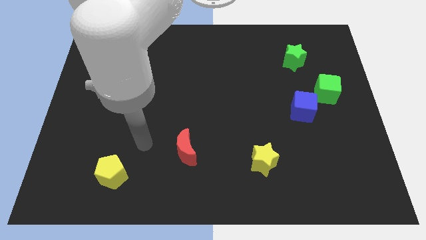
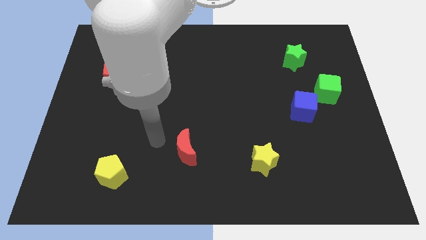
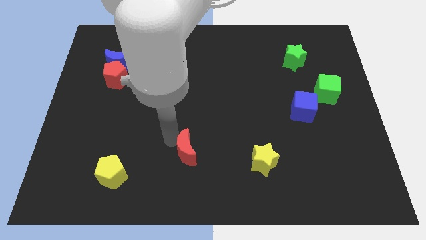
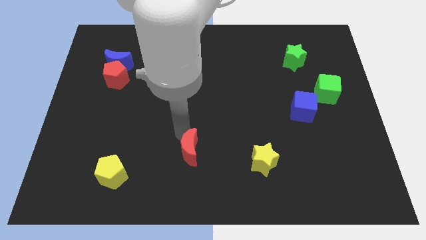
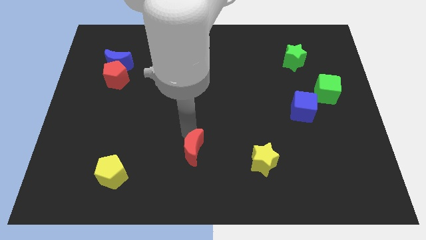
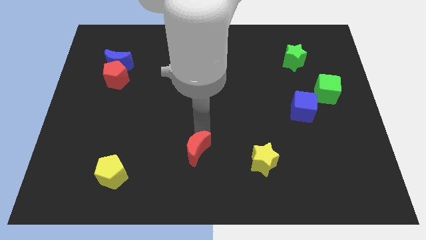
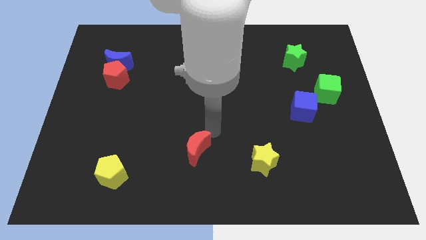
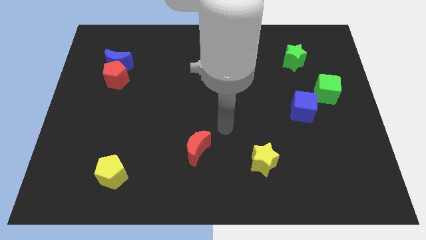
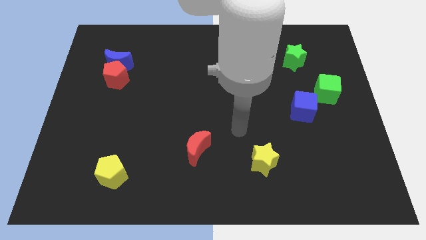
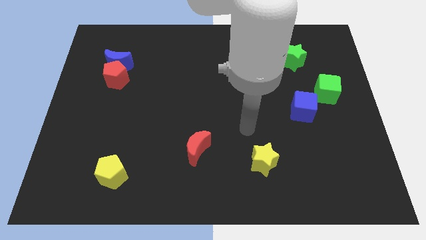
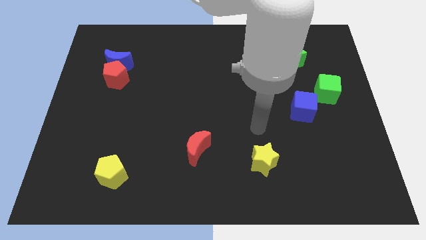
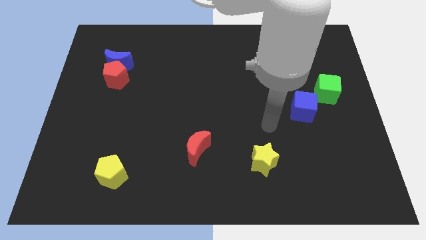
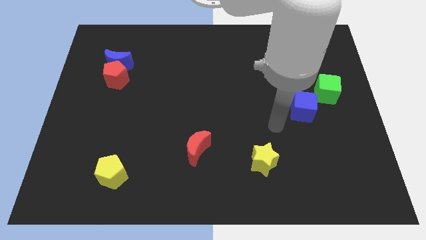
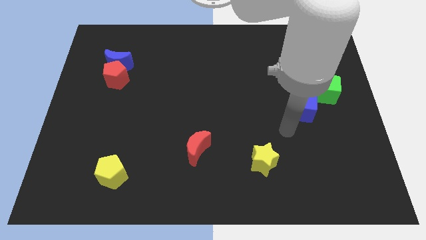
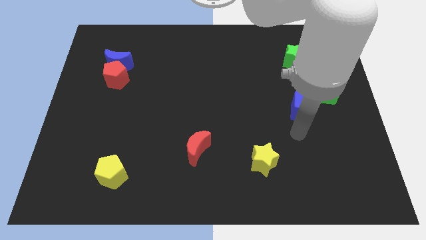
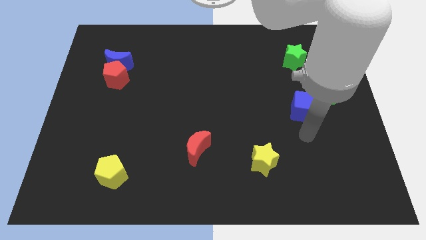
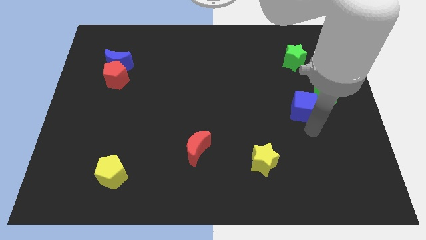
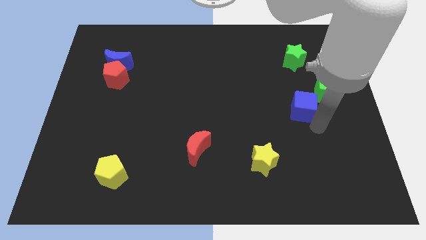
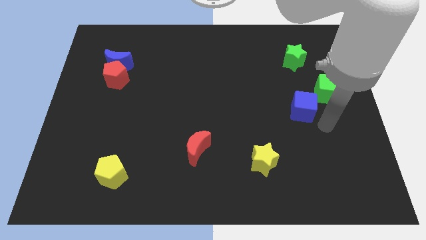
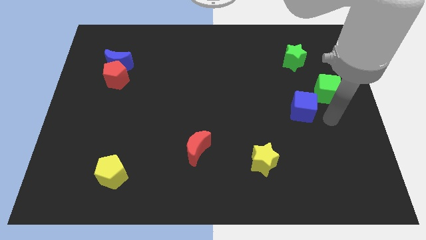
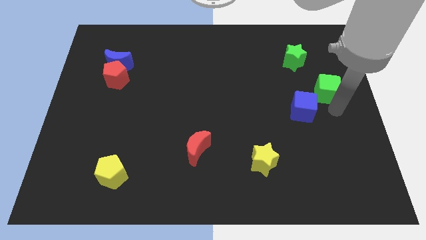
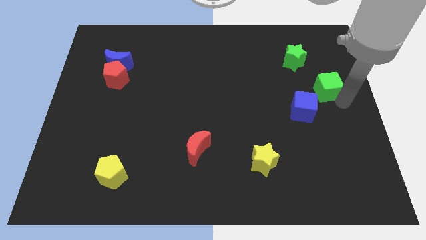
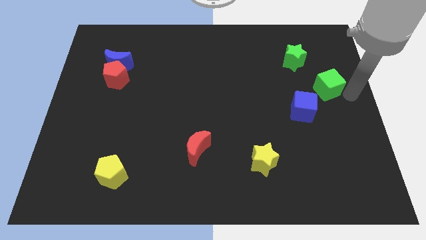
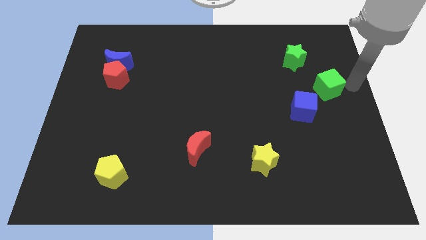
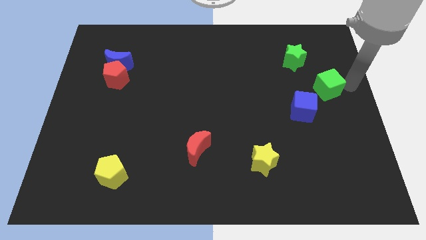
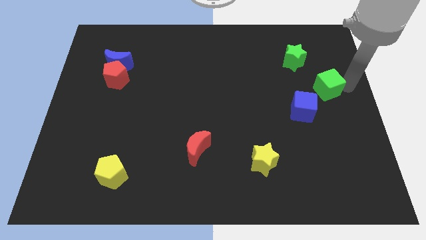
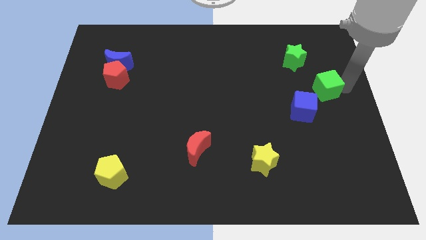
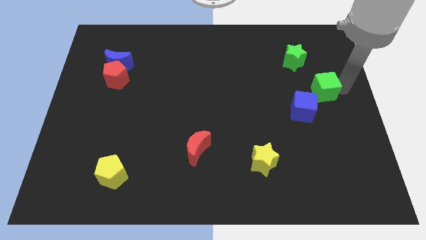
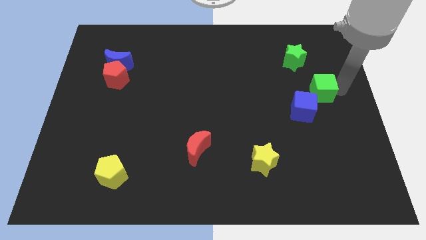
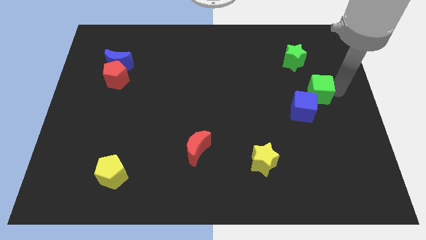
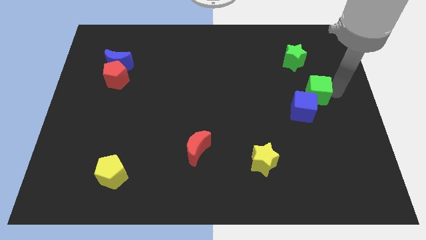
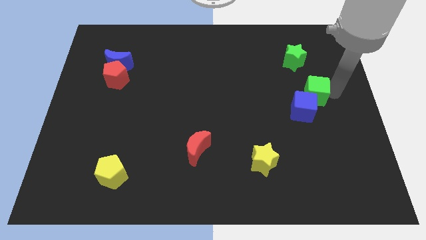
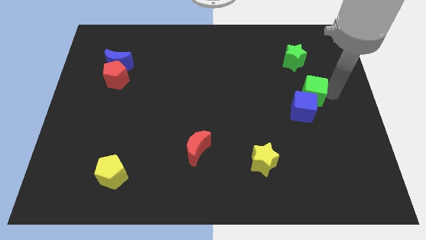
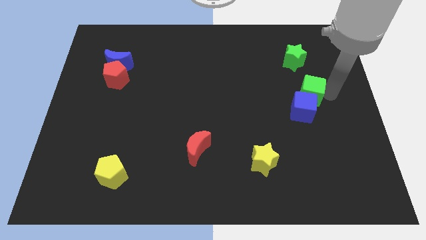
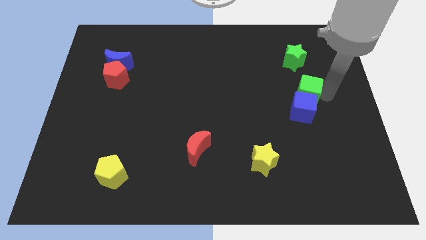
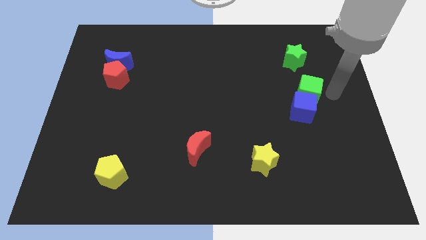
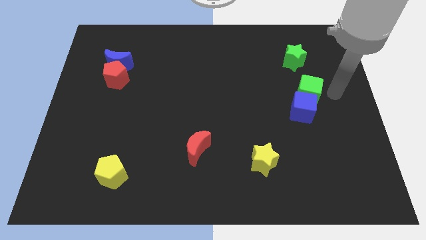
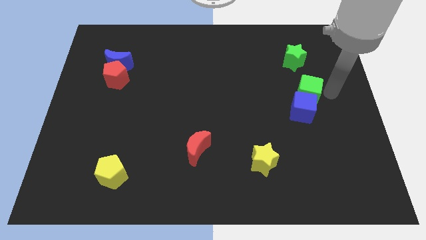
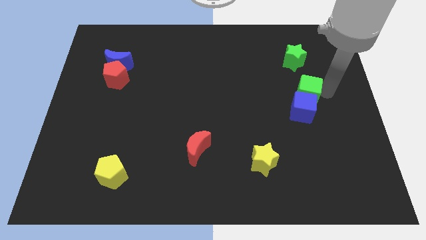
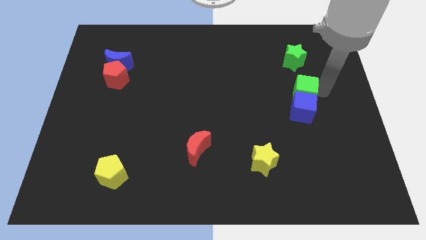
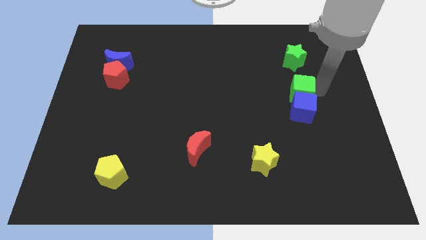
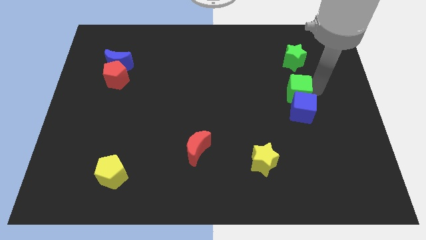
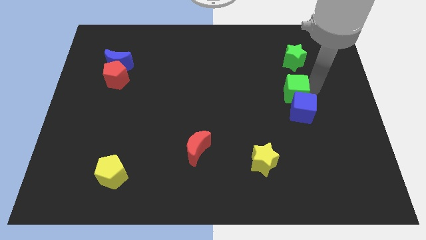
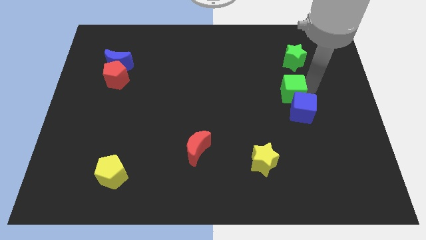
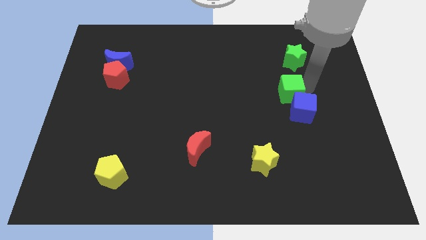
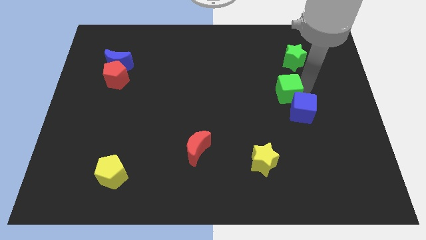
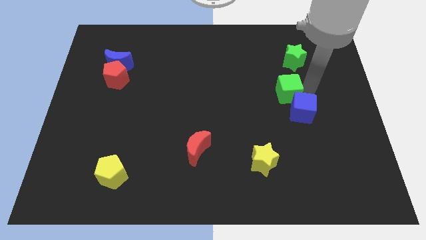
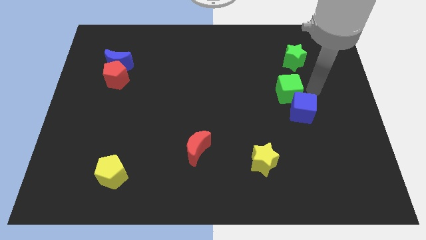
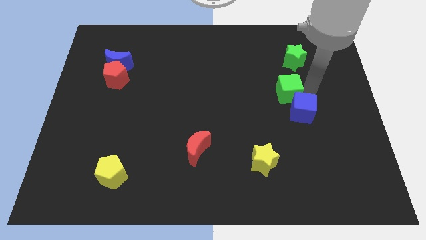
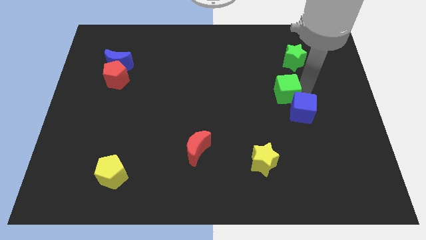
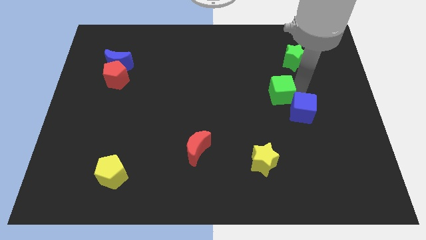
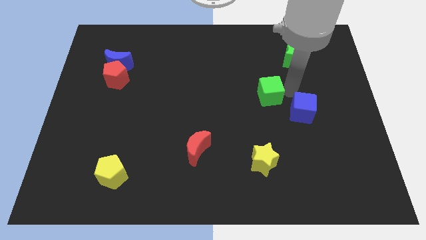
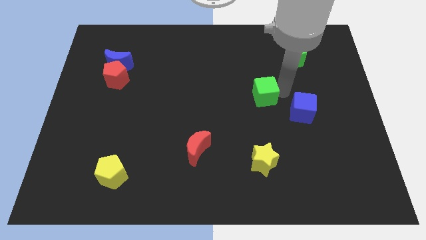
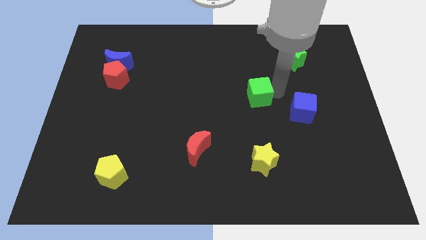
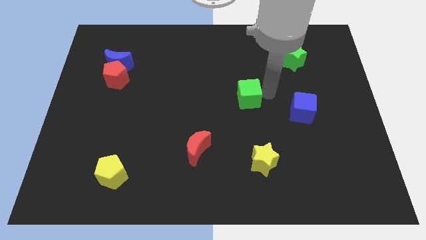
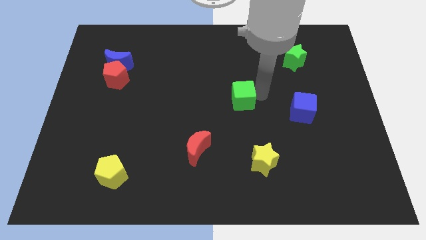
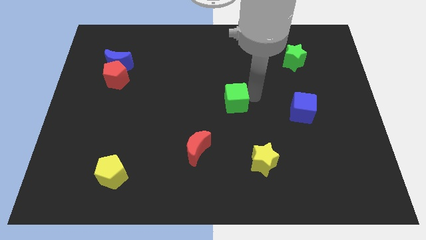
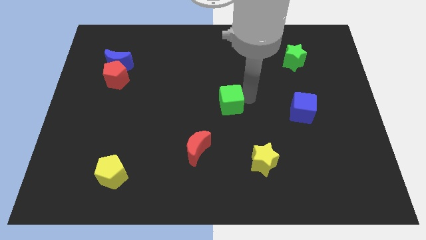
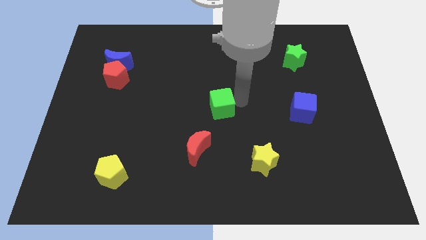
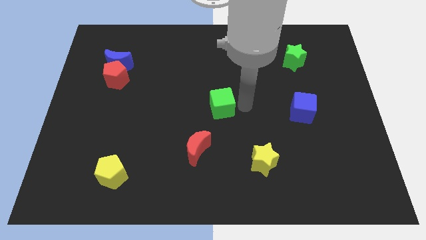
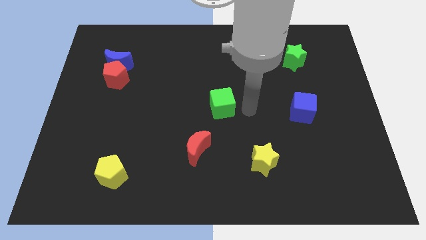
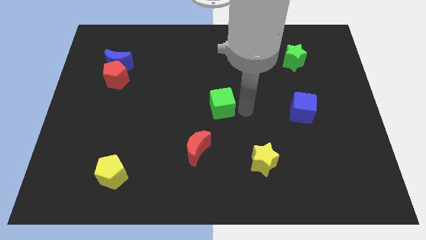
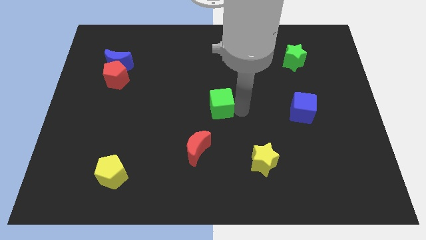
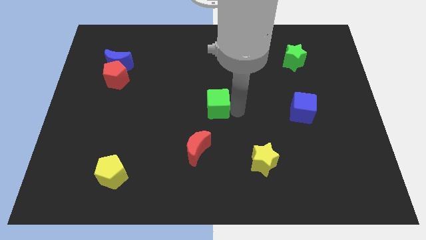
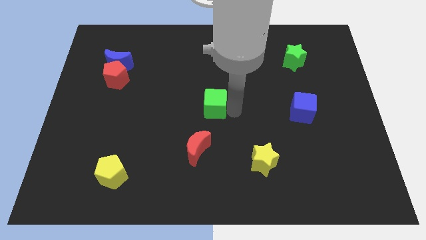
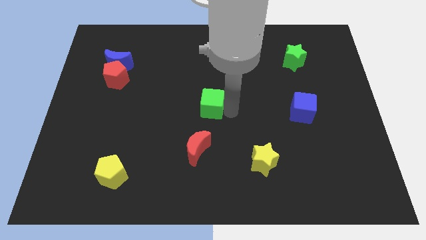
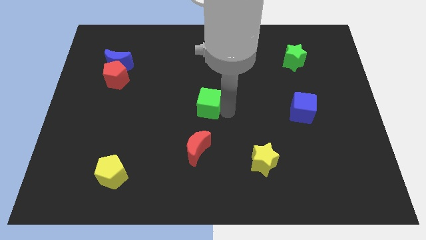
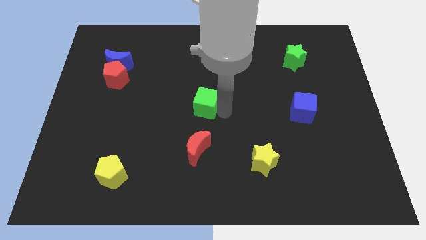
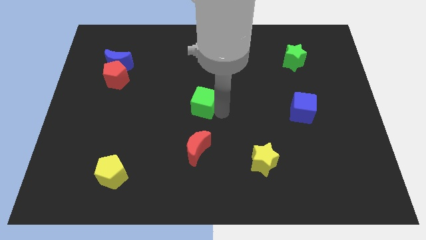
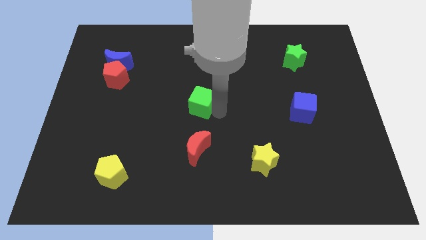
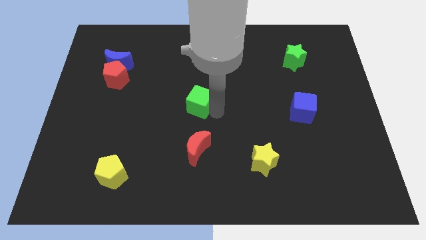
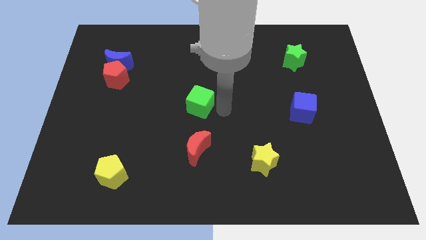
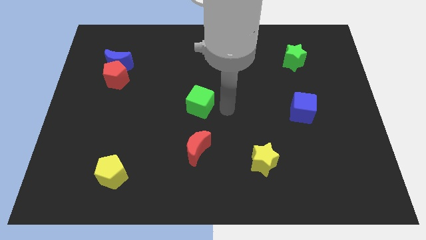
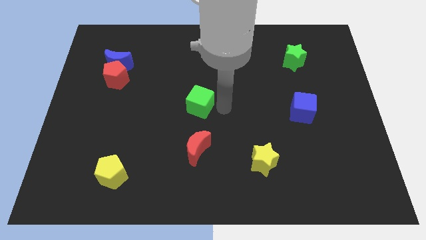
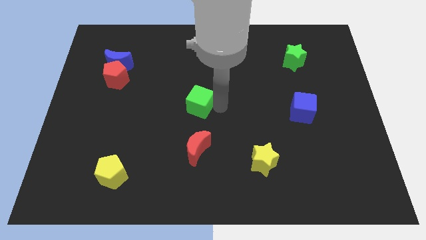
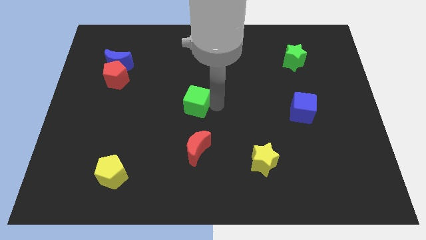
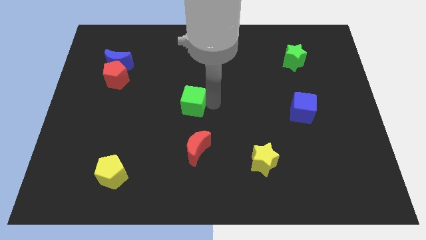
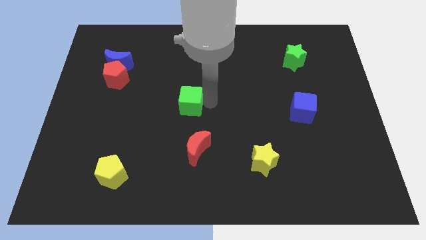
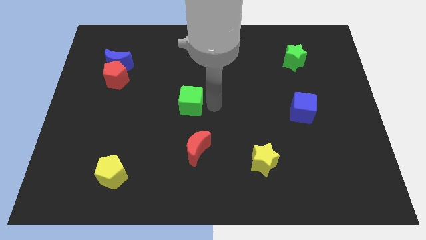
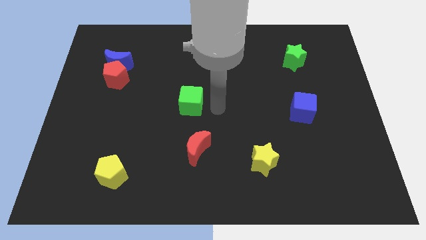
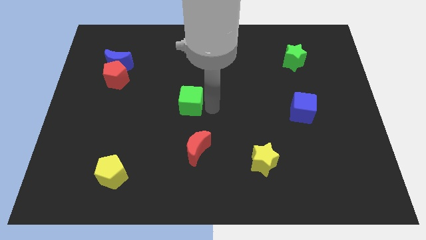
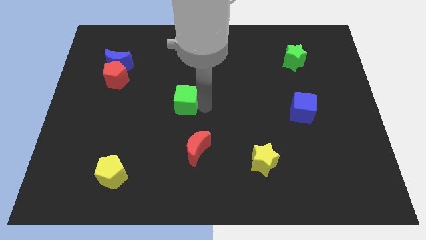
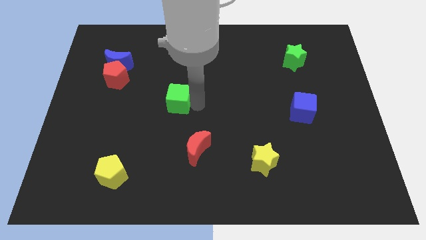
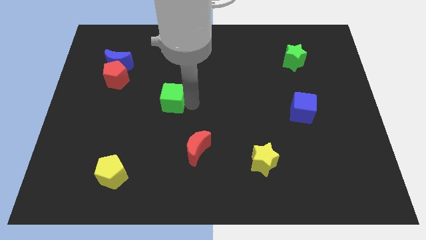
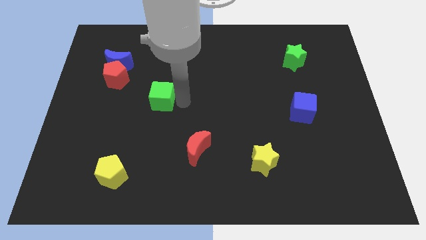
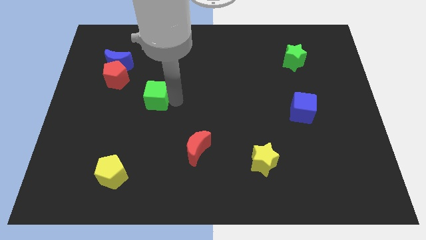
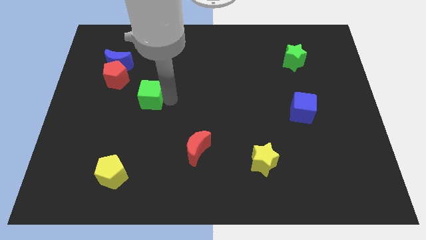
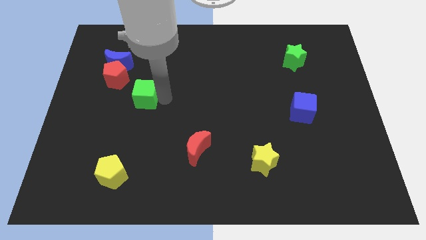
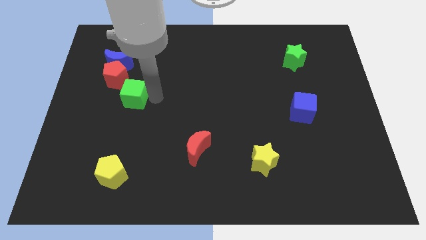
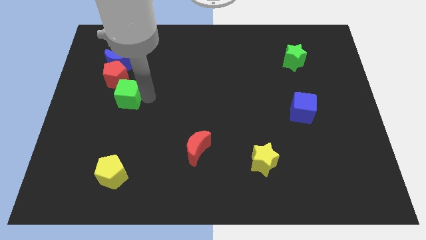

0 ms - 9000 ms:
push the green cube to the bottom of the blue moon
